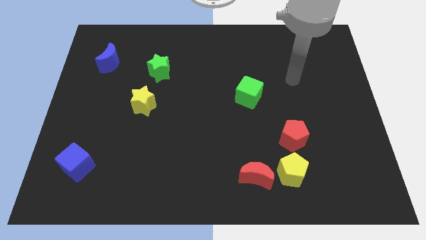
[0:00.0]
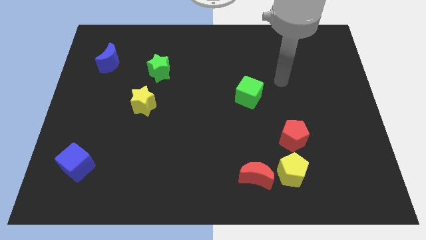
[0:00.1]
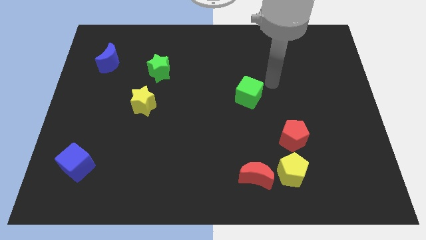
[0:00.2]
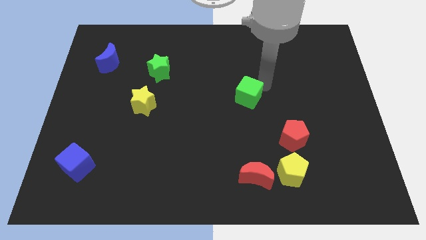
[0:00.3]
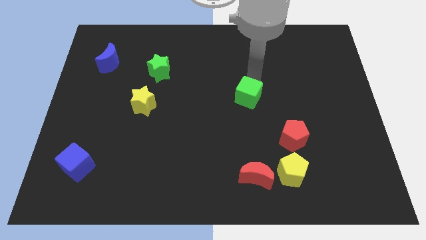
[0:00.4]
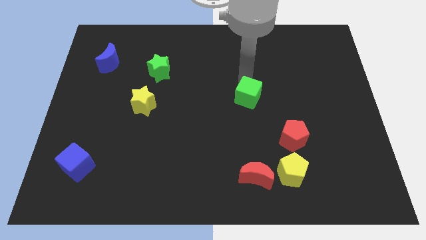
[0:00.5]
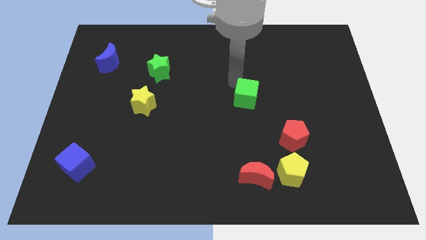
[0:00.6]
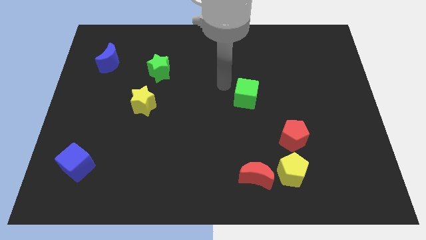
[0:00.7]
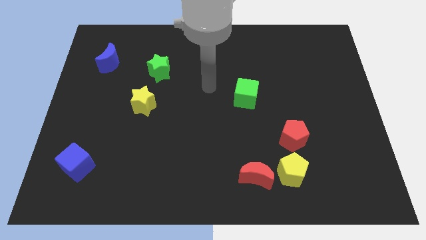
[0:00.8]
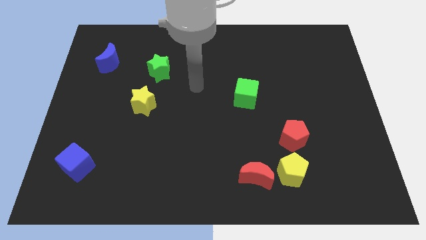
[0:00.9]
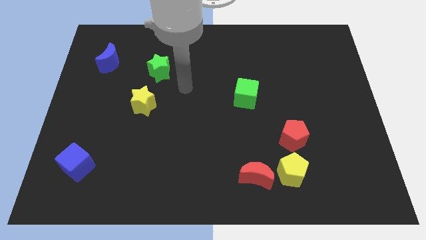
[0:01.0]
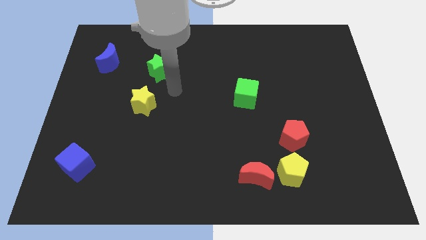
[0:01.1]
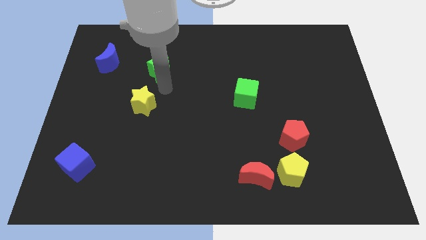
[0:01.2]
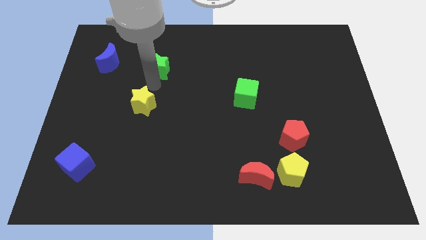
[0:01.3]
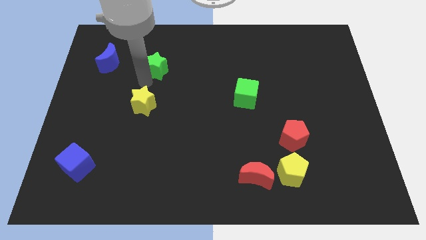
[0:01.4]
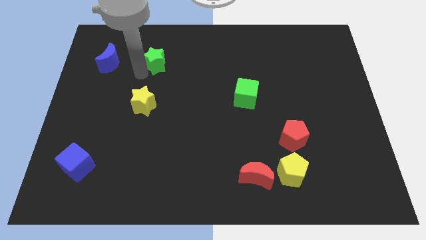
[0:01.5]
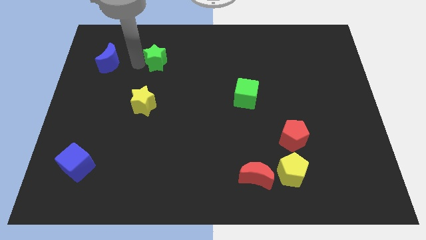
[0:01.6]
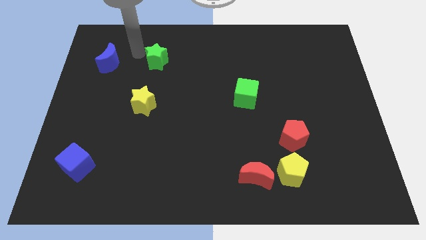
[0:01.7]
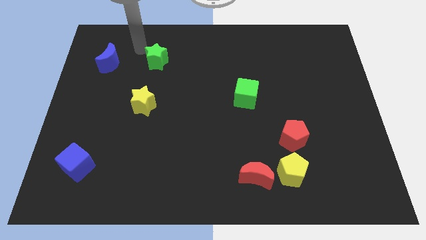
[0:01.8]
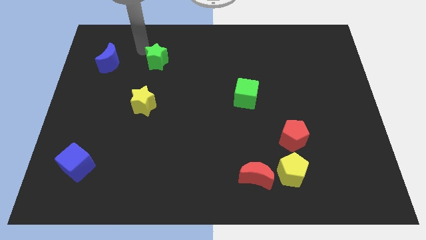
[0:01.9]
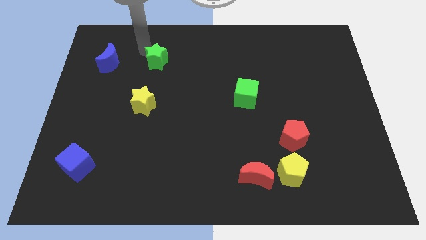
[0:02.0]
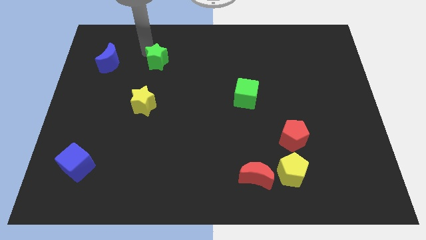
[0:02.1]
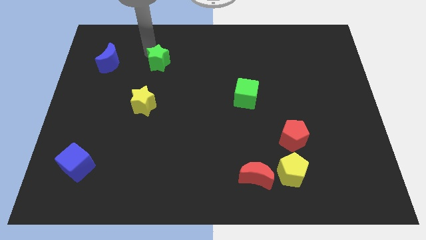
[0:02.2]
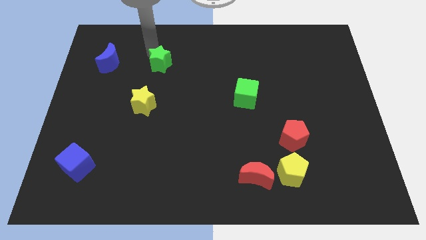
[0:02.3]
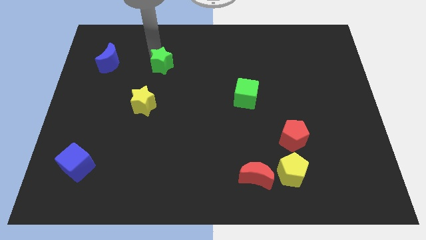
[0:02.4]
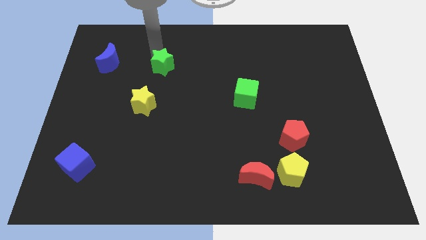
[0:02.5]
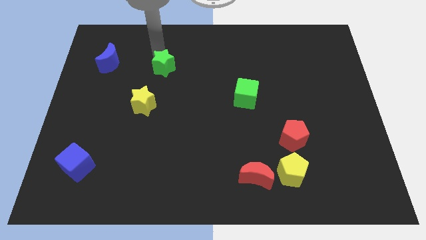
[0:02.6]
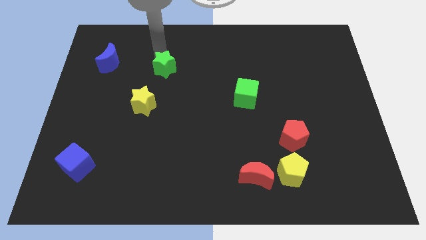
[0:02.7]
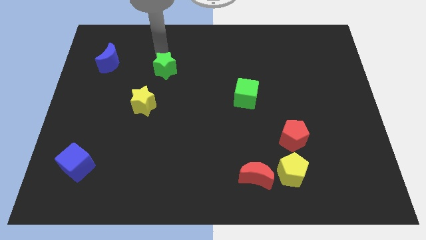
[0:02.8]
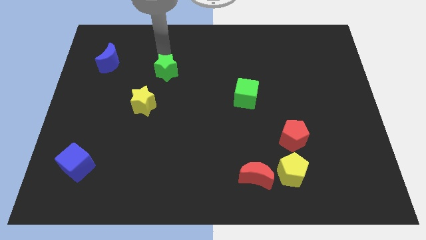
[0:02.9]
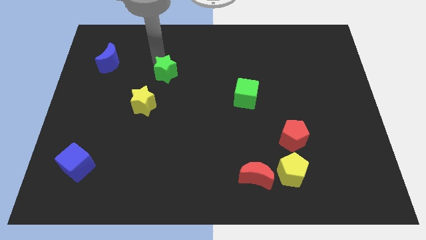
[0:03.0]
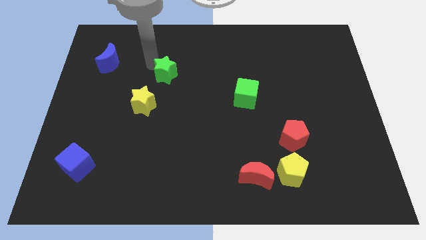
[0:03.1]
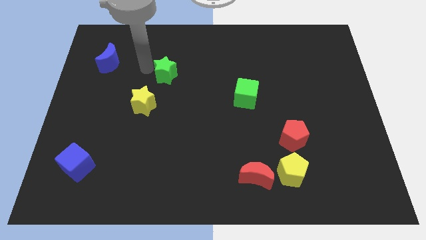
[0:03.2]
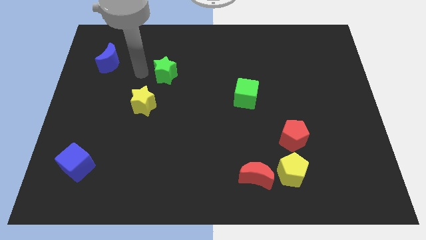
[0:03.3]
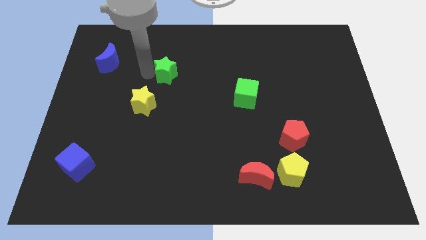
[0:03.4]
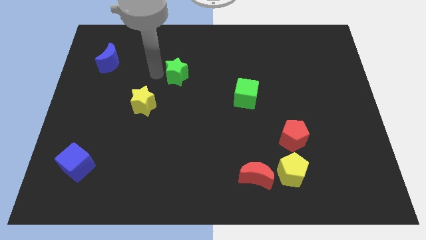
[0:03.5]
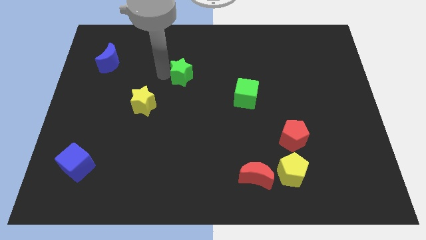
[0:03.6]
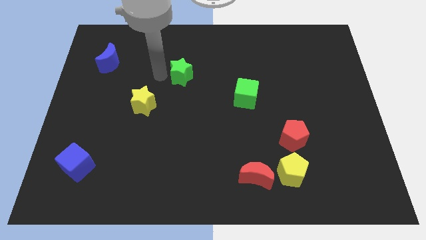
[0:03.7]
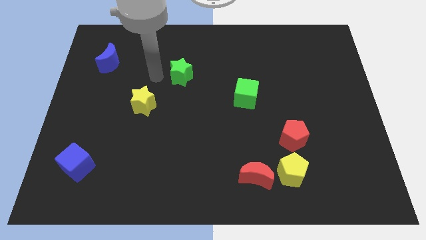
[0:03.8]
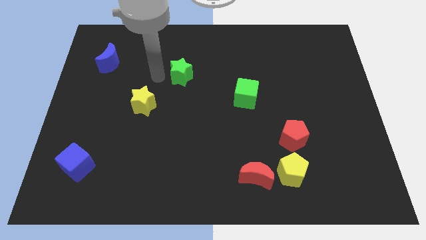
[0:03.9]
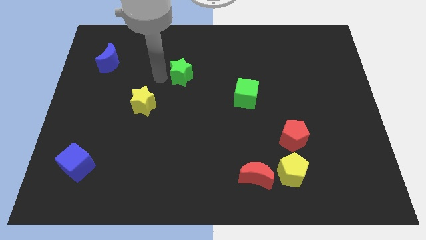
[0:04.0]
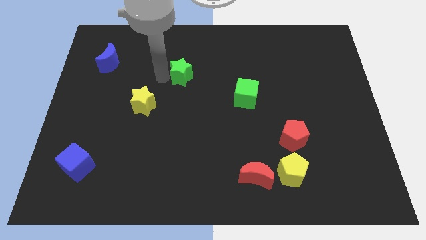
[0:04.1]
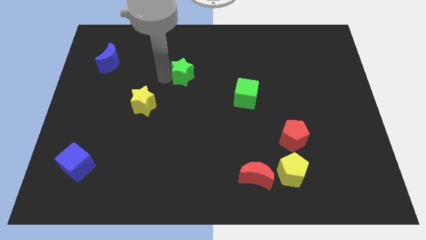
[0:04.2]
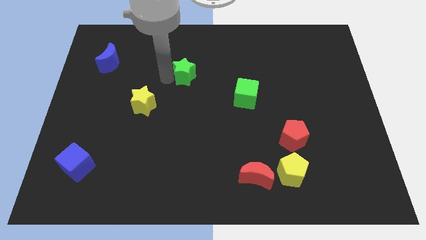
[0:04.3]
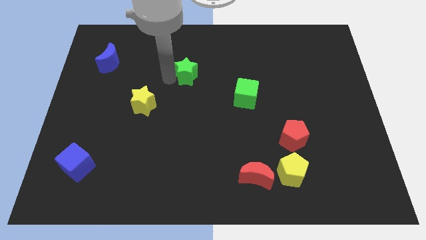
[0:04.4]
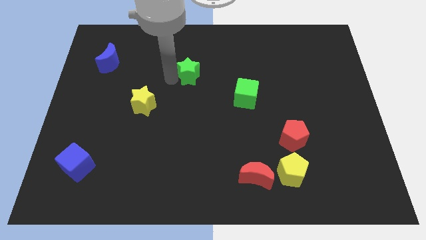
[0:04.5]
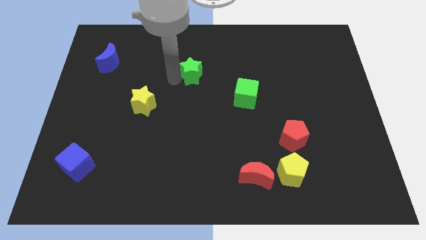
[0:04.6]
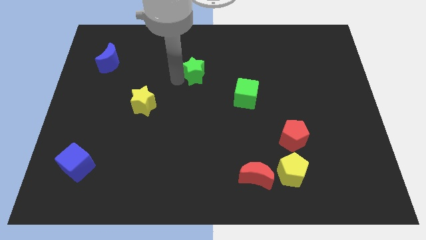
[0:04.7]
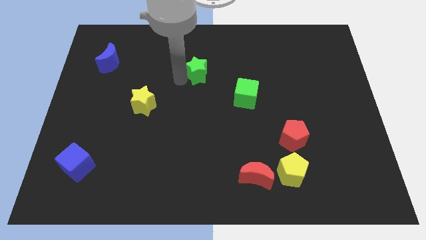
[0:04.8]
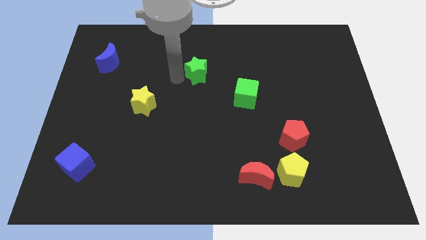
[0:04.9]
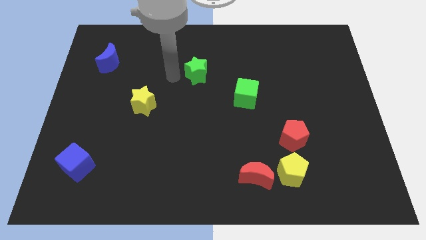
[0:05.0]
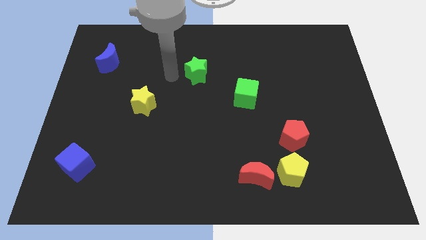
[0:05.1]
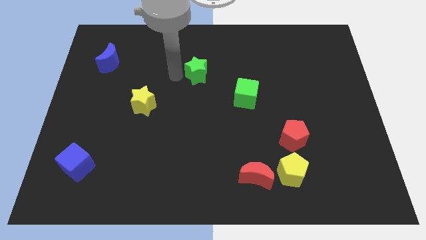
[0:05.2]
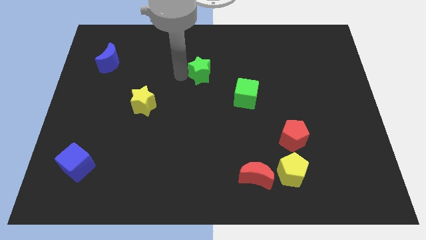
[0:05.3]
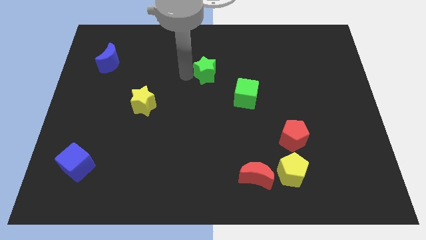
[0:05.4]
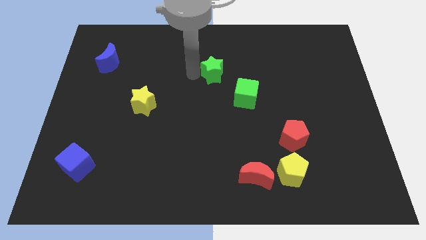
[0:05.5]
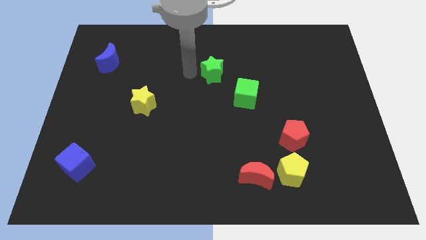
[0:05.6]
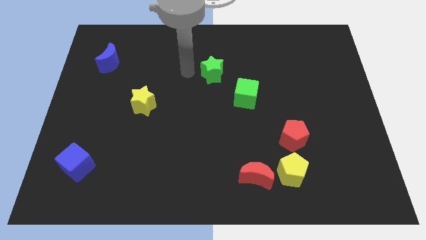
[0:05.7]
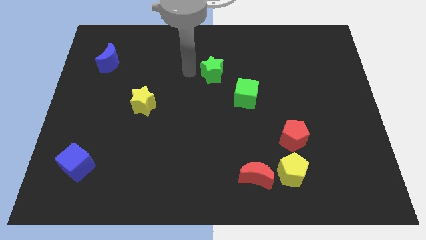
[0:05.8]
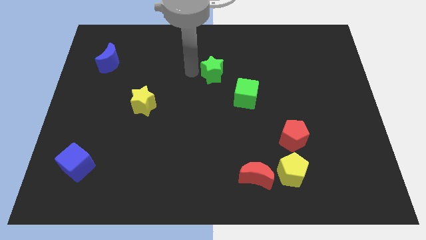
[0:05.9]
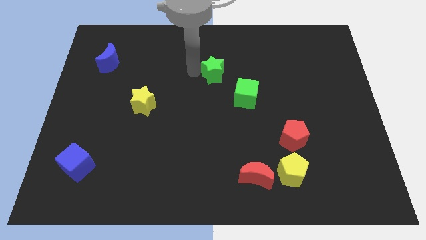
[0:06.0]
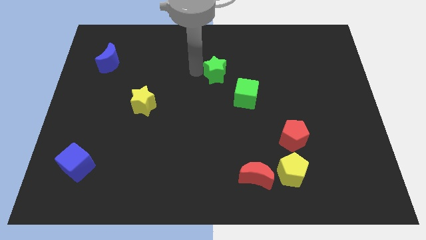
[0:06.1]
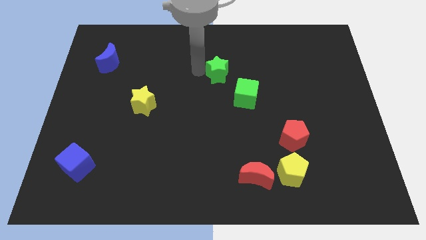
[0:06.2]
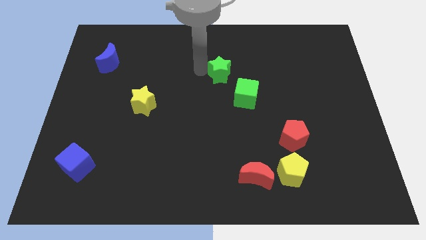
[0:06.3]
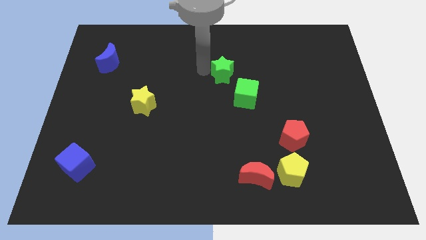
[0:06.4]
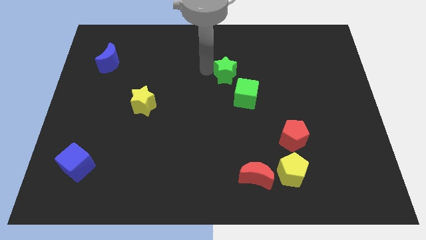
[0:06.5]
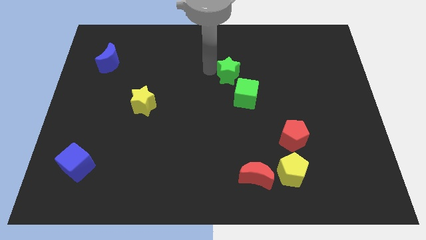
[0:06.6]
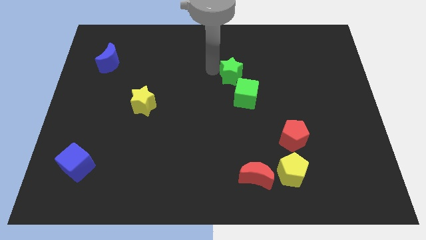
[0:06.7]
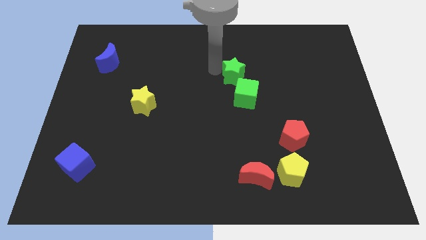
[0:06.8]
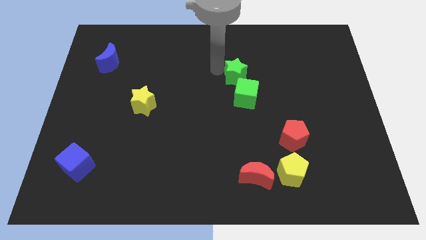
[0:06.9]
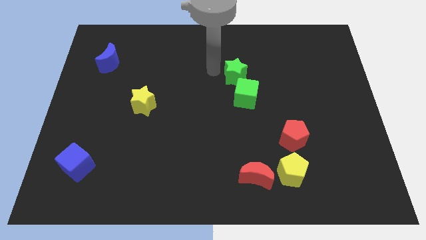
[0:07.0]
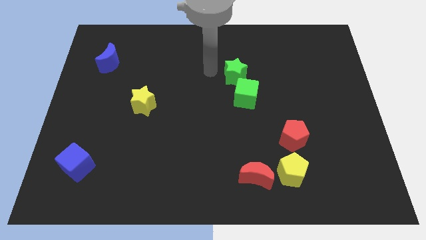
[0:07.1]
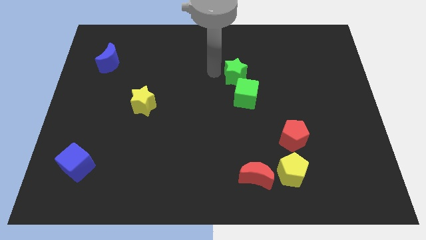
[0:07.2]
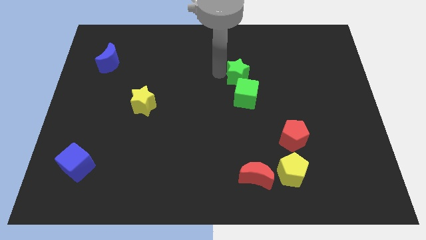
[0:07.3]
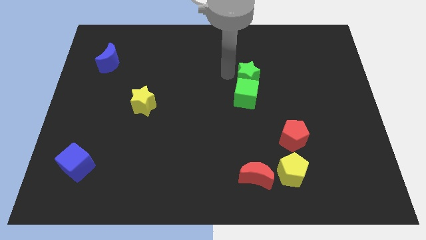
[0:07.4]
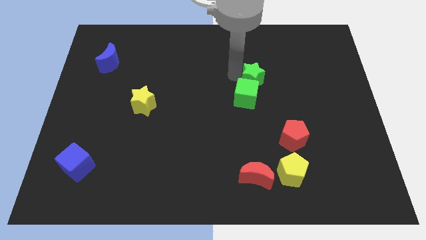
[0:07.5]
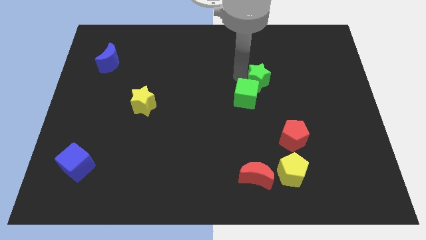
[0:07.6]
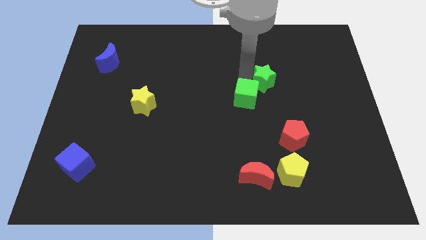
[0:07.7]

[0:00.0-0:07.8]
move the green star to the right side of the green cube
